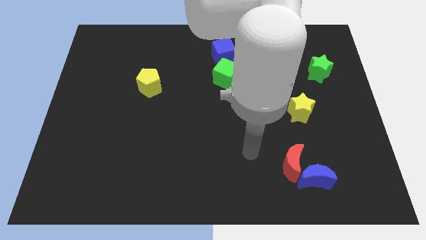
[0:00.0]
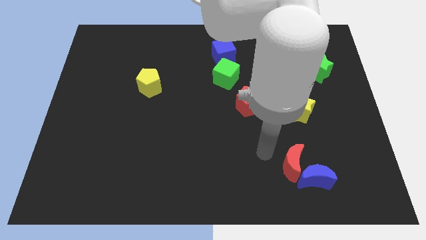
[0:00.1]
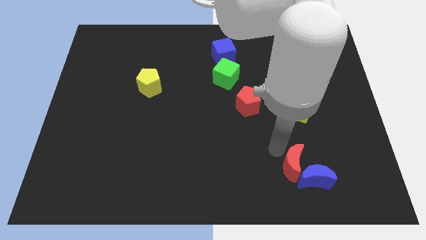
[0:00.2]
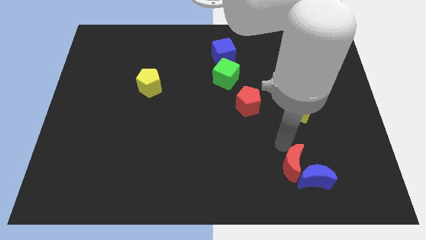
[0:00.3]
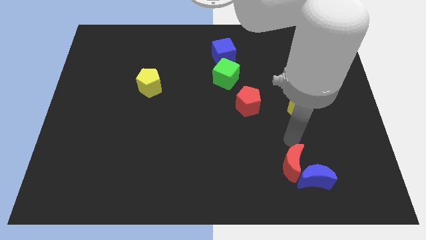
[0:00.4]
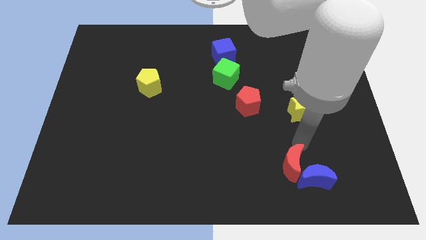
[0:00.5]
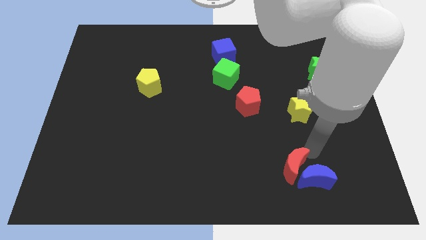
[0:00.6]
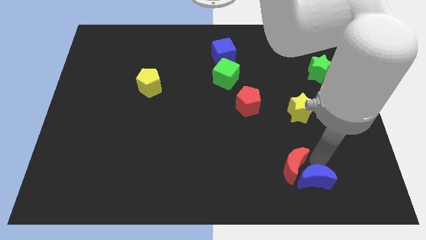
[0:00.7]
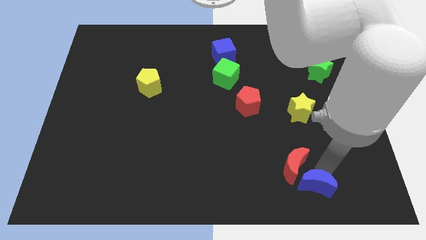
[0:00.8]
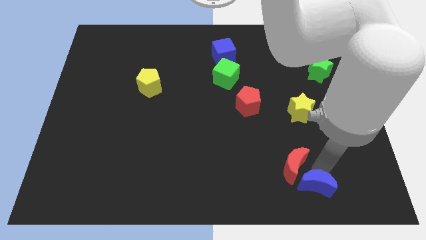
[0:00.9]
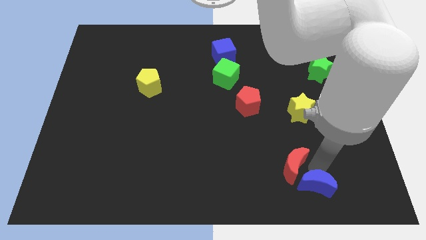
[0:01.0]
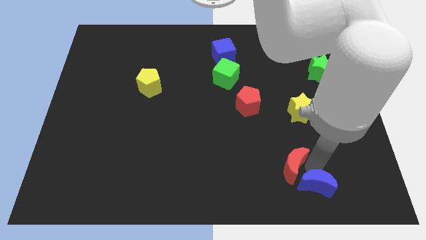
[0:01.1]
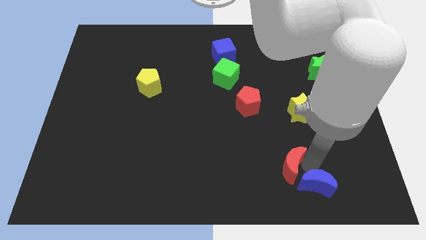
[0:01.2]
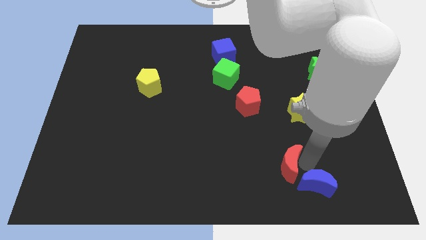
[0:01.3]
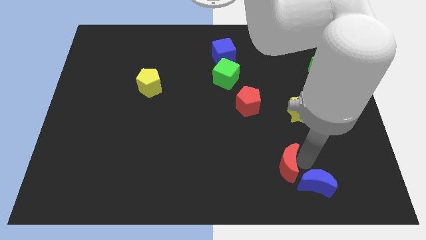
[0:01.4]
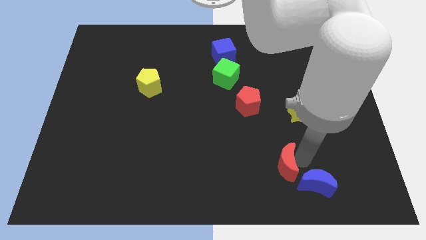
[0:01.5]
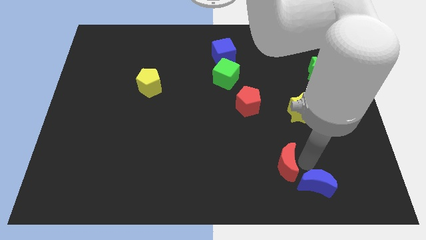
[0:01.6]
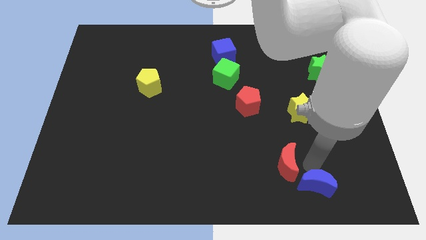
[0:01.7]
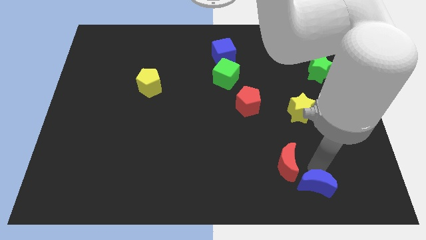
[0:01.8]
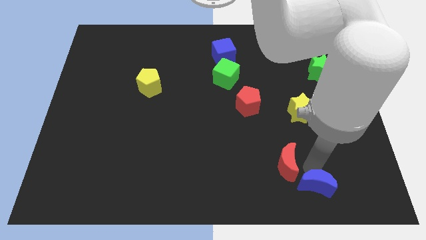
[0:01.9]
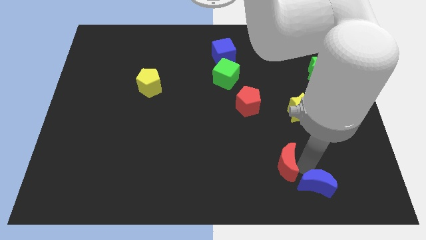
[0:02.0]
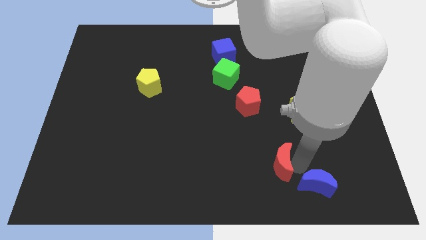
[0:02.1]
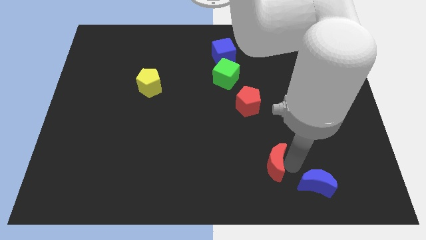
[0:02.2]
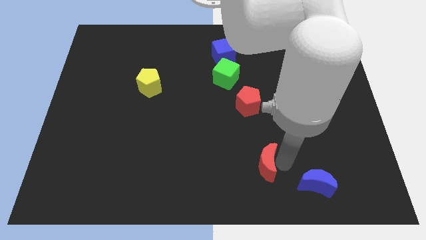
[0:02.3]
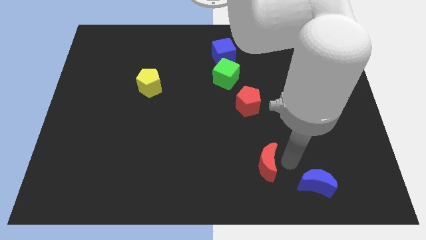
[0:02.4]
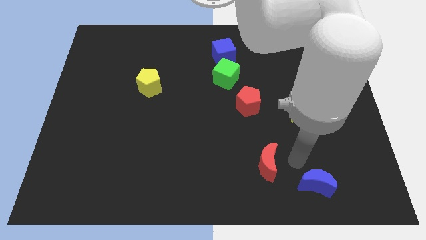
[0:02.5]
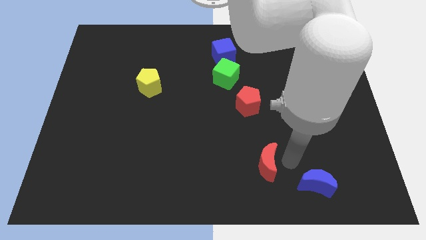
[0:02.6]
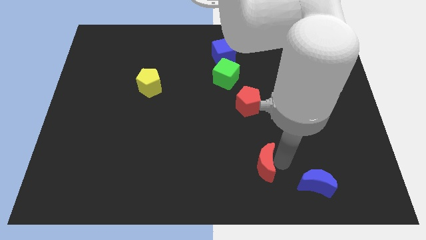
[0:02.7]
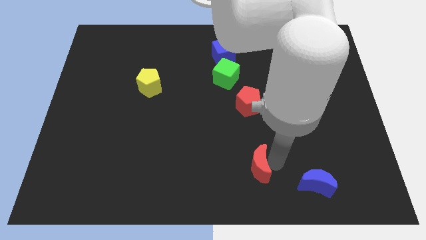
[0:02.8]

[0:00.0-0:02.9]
slightly push the red moon to the left

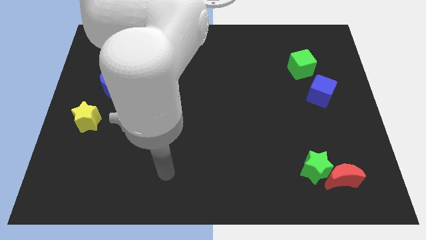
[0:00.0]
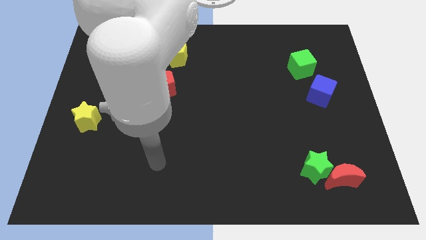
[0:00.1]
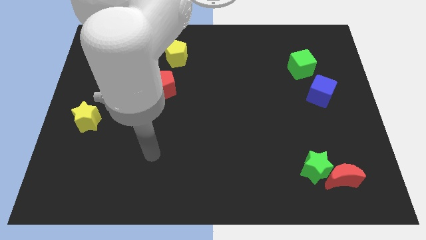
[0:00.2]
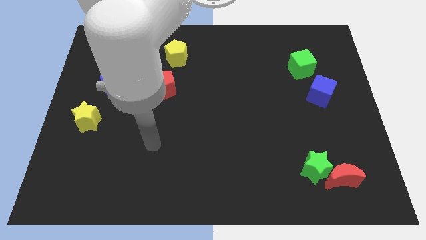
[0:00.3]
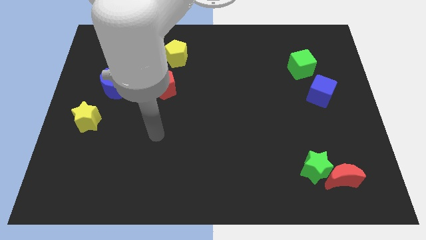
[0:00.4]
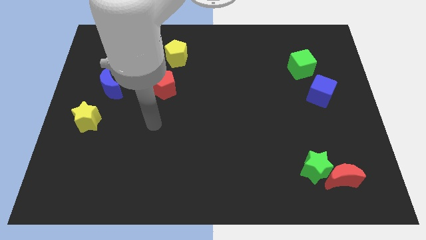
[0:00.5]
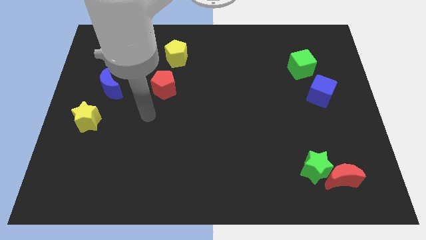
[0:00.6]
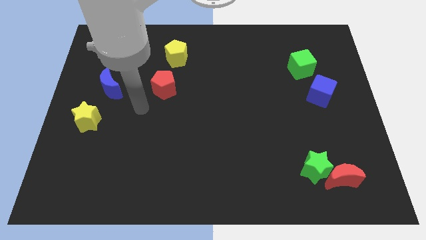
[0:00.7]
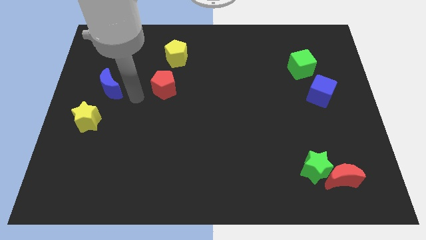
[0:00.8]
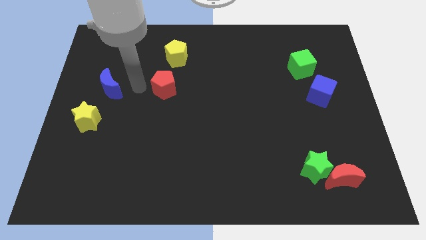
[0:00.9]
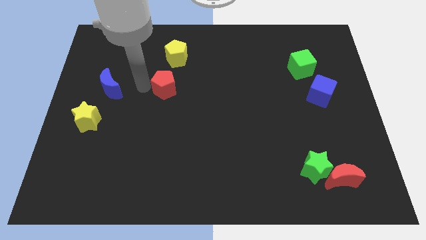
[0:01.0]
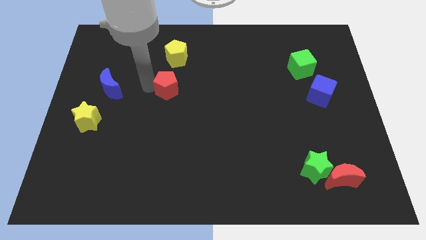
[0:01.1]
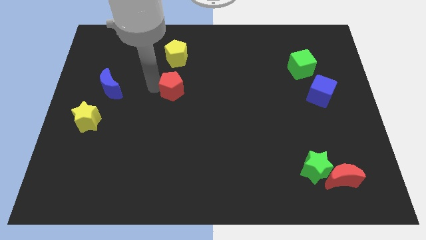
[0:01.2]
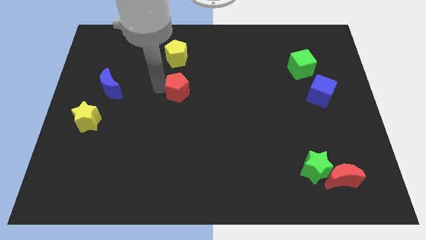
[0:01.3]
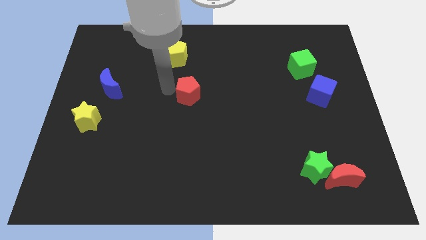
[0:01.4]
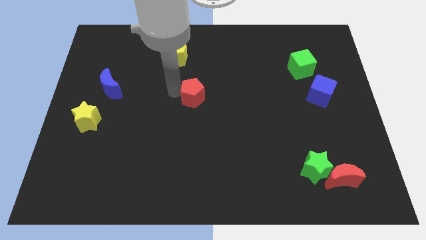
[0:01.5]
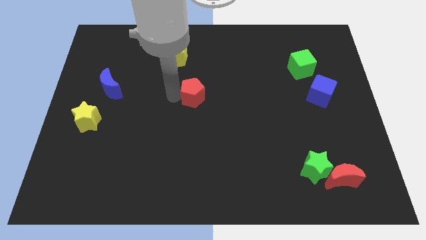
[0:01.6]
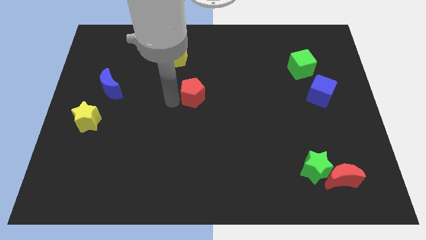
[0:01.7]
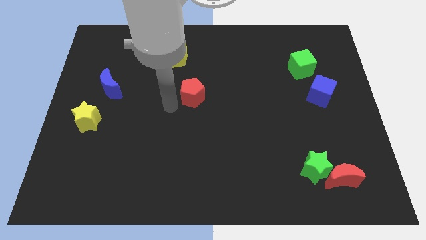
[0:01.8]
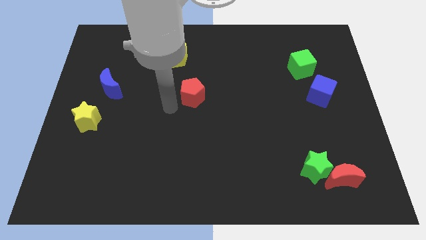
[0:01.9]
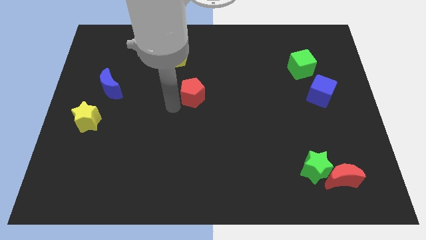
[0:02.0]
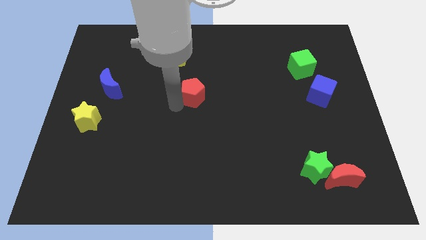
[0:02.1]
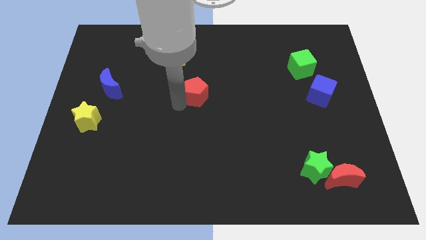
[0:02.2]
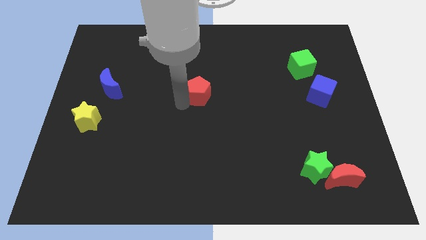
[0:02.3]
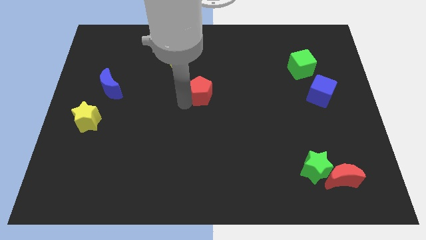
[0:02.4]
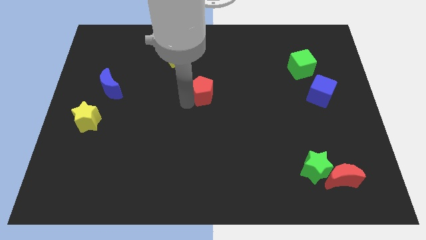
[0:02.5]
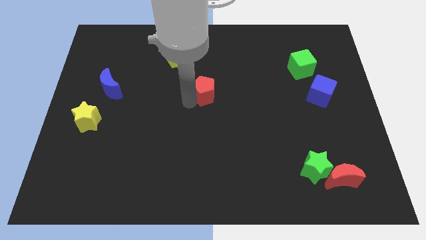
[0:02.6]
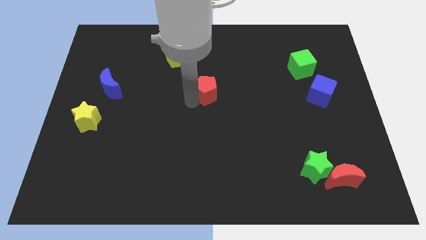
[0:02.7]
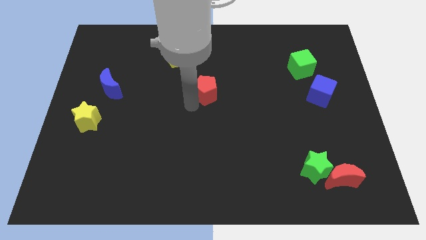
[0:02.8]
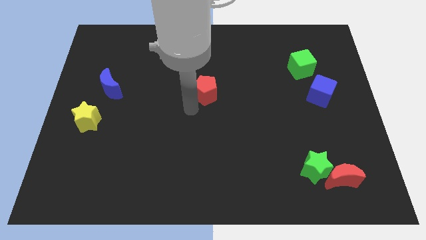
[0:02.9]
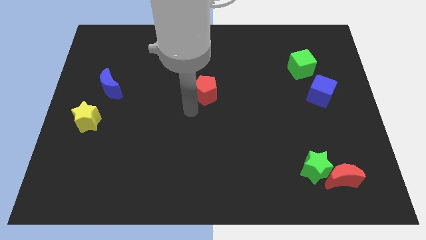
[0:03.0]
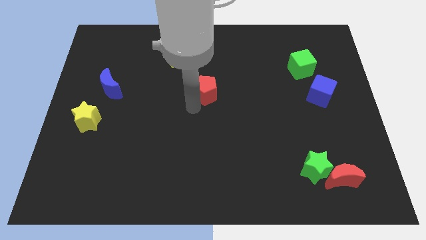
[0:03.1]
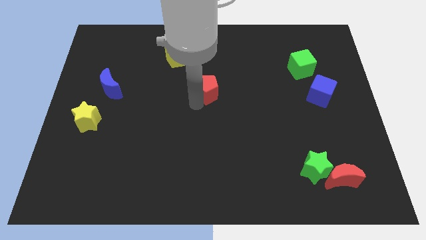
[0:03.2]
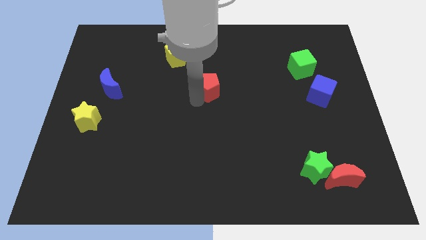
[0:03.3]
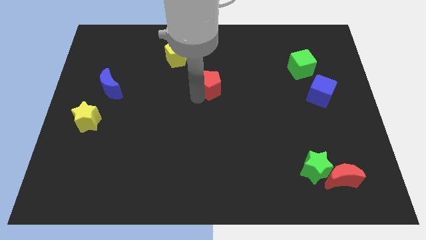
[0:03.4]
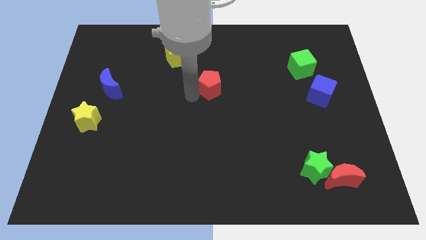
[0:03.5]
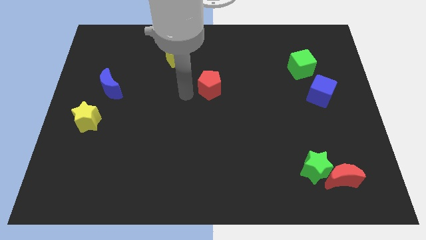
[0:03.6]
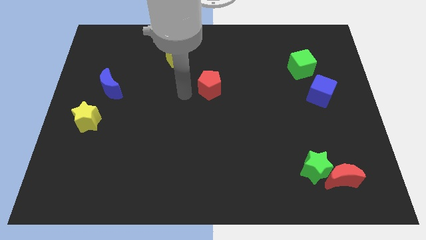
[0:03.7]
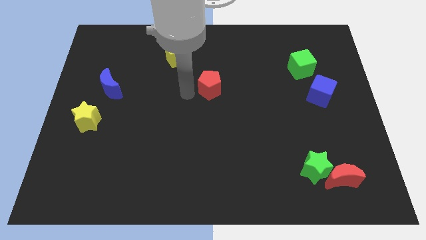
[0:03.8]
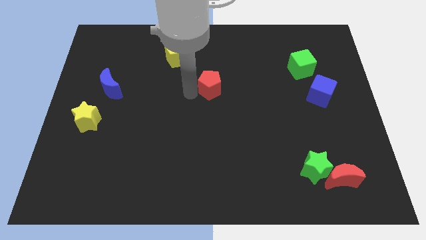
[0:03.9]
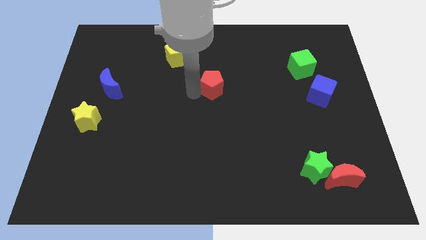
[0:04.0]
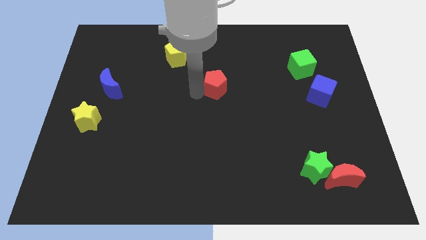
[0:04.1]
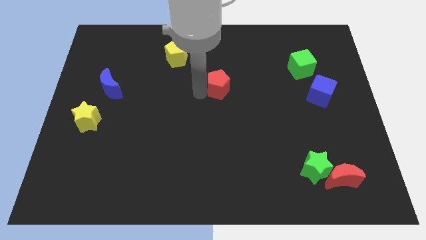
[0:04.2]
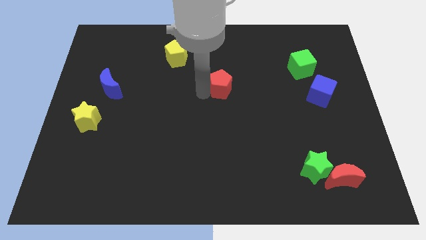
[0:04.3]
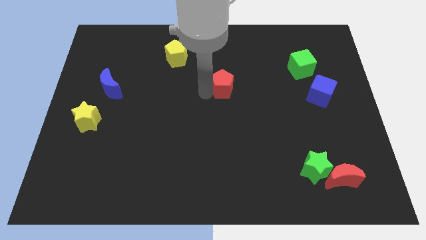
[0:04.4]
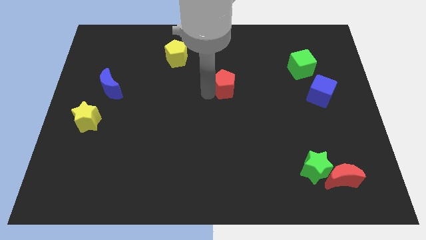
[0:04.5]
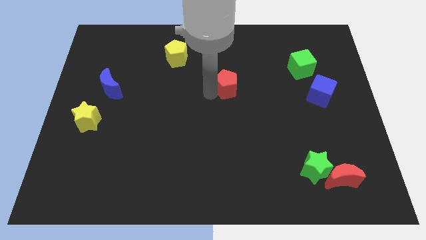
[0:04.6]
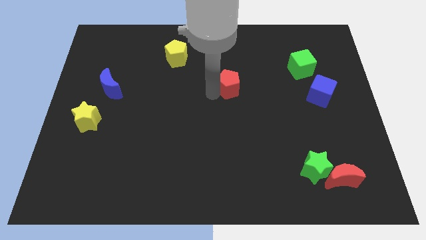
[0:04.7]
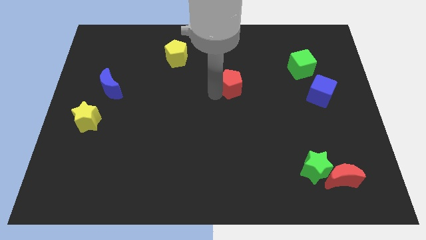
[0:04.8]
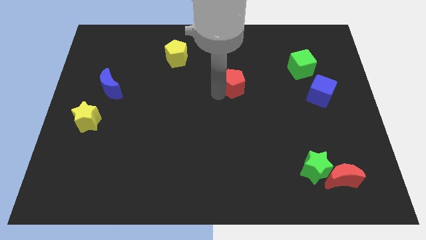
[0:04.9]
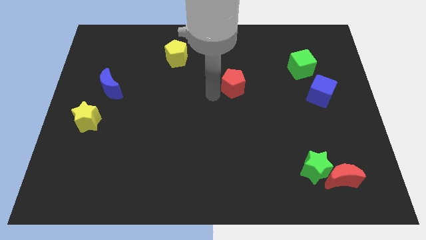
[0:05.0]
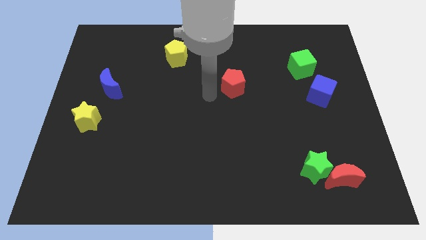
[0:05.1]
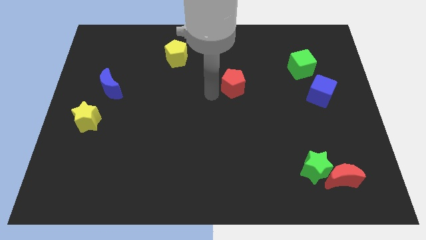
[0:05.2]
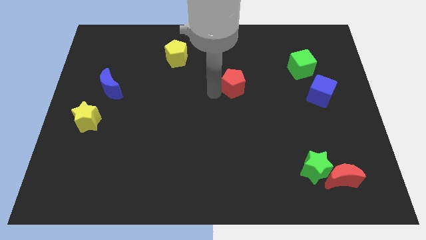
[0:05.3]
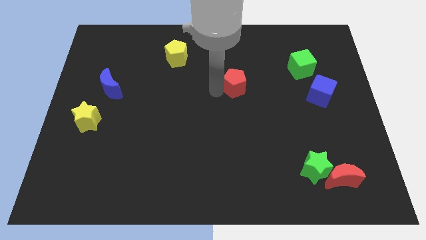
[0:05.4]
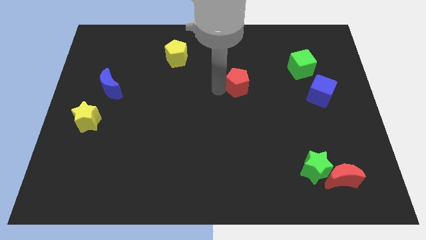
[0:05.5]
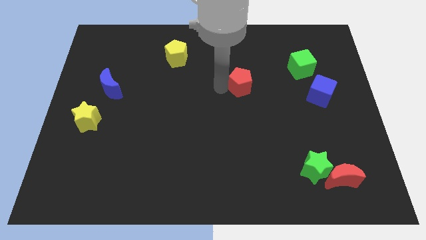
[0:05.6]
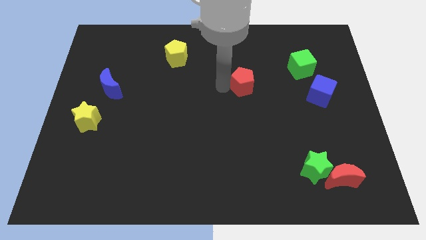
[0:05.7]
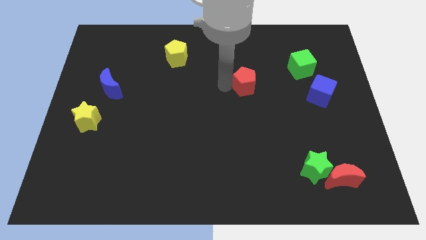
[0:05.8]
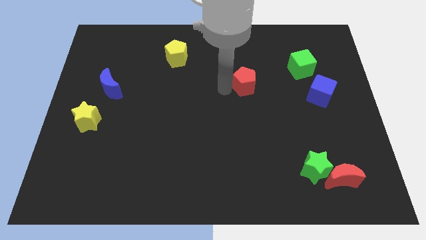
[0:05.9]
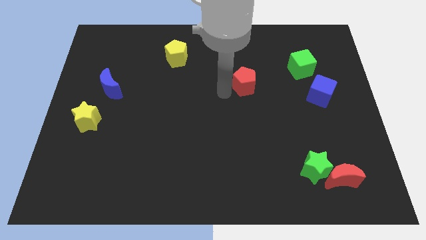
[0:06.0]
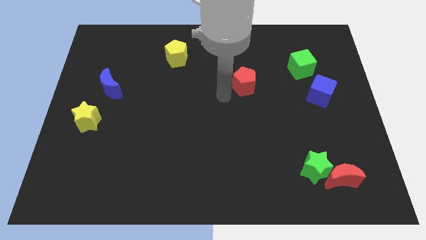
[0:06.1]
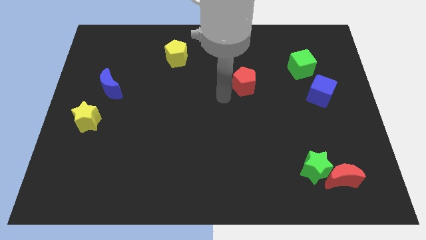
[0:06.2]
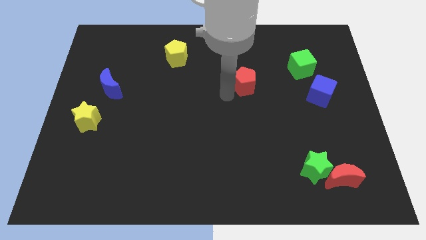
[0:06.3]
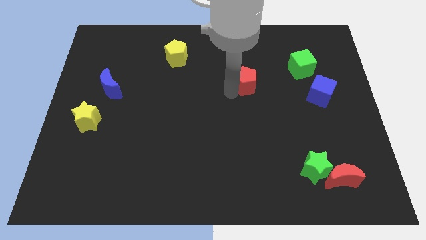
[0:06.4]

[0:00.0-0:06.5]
push the red pentagon to the right
